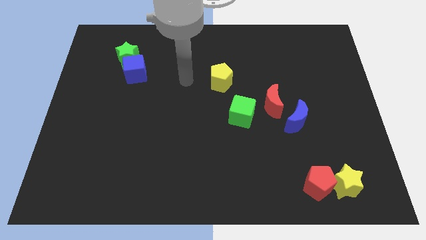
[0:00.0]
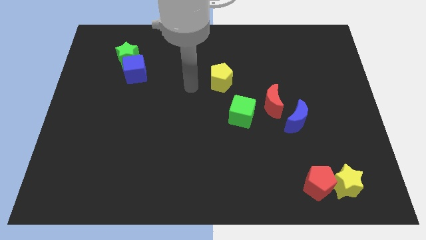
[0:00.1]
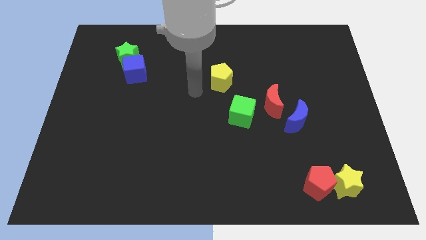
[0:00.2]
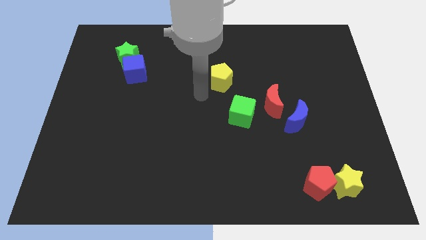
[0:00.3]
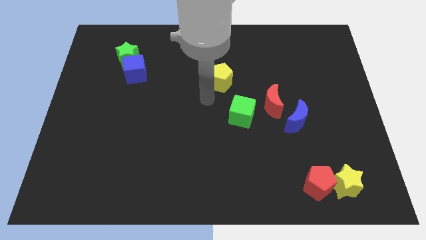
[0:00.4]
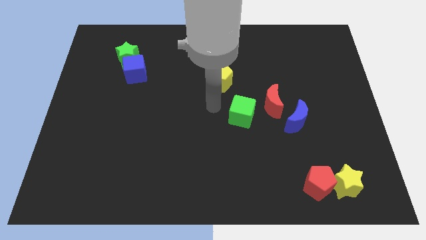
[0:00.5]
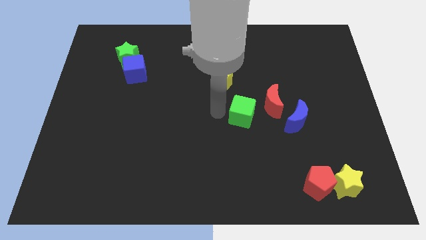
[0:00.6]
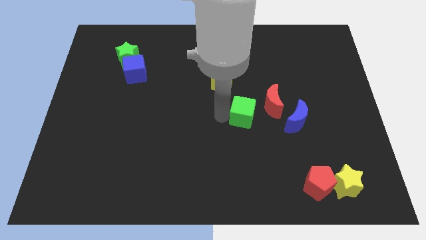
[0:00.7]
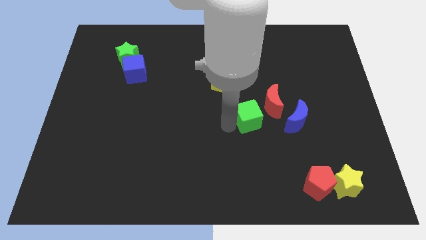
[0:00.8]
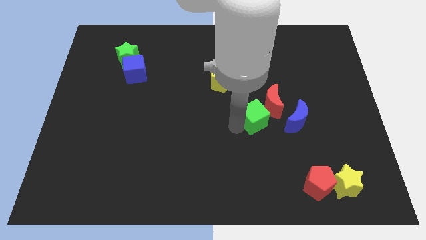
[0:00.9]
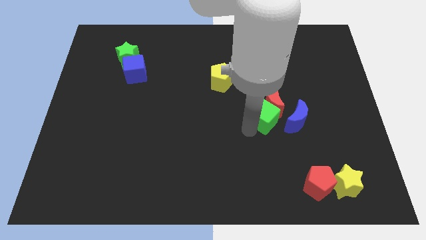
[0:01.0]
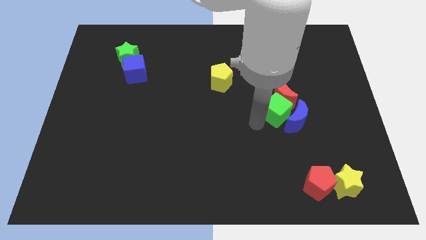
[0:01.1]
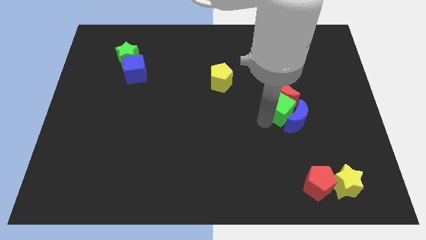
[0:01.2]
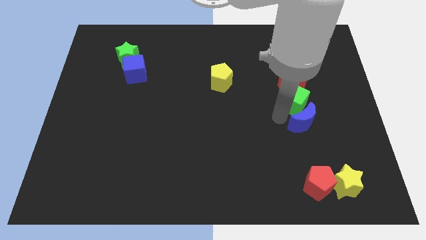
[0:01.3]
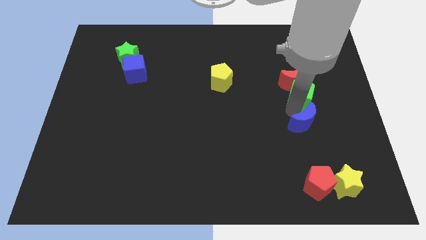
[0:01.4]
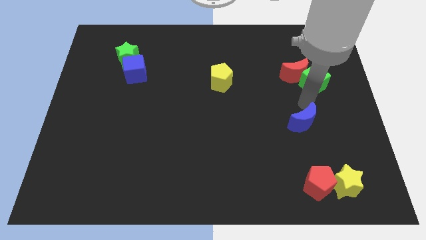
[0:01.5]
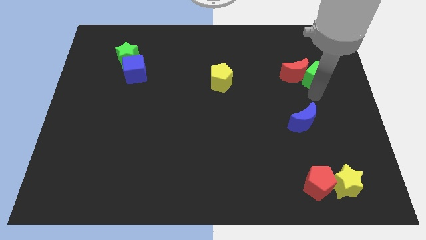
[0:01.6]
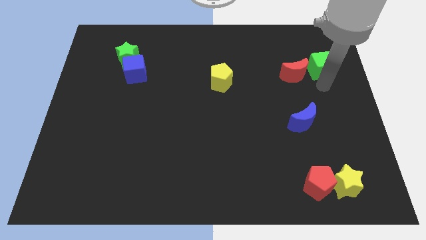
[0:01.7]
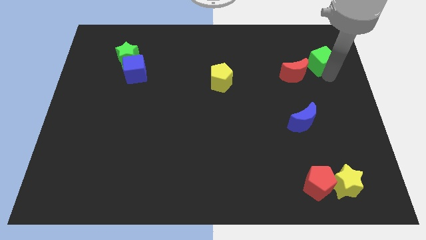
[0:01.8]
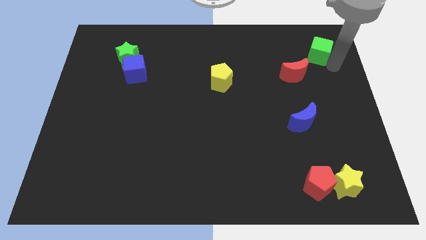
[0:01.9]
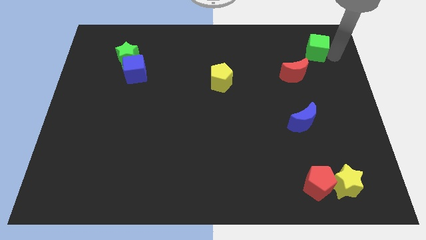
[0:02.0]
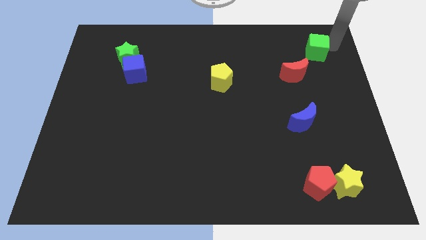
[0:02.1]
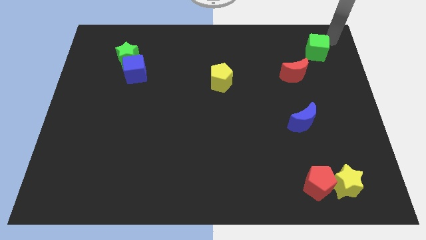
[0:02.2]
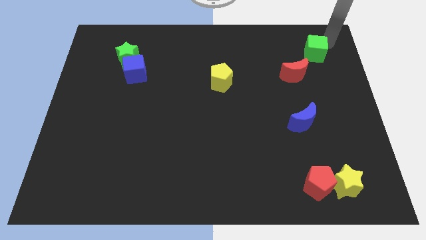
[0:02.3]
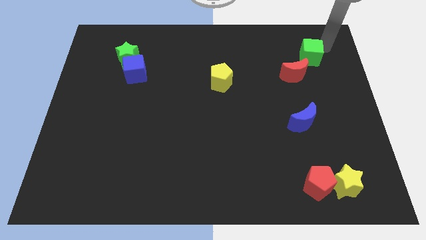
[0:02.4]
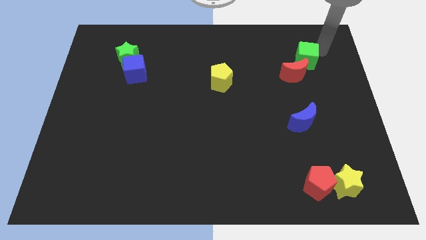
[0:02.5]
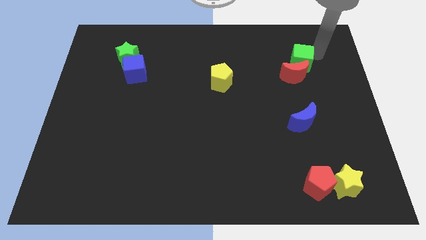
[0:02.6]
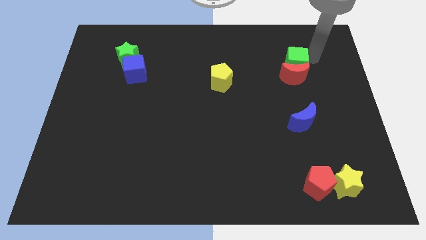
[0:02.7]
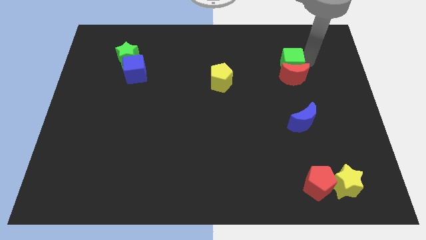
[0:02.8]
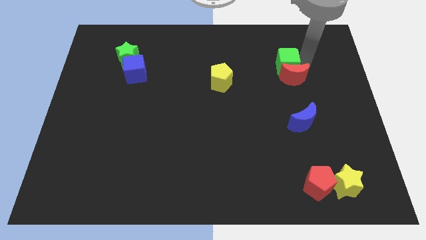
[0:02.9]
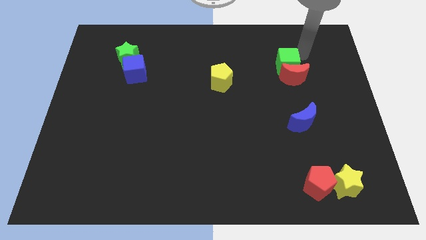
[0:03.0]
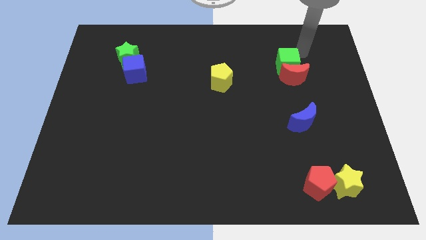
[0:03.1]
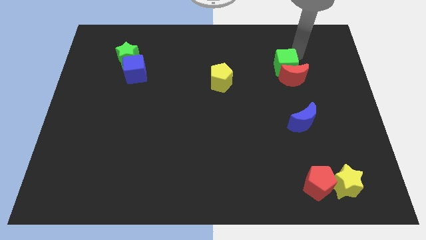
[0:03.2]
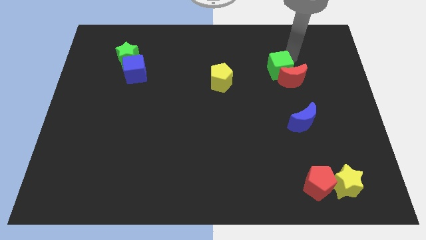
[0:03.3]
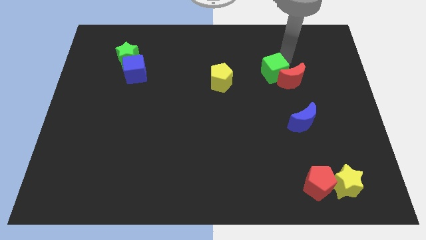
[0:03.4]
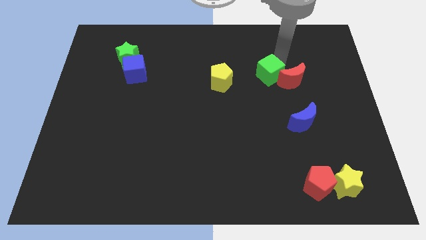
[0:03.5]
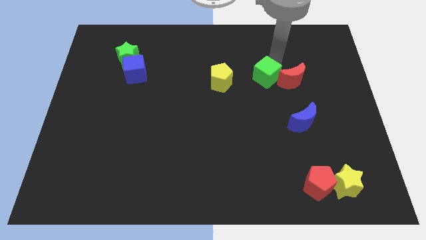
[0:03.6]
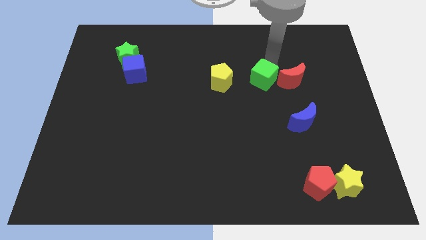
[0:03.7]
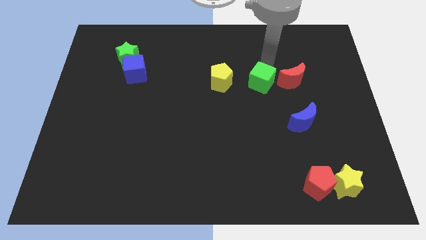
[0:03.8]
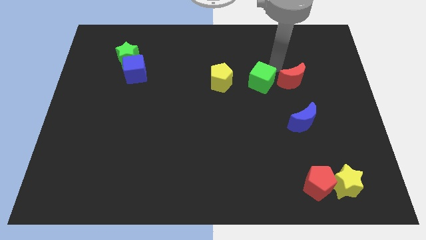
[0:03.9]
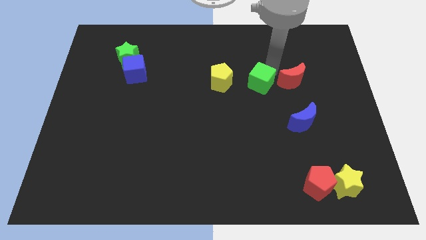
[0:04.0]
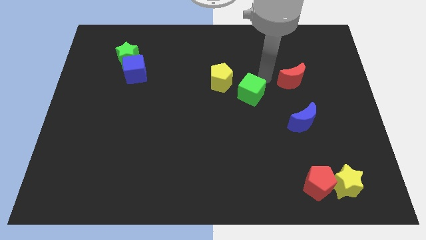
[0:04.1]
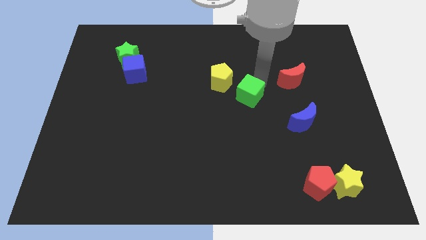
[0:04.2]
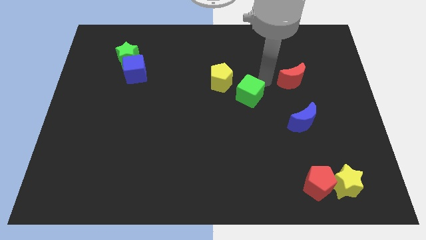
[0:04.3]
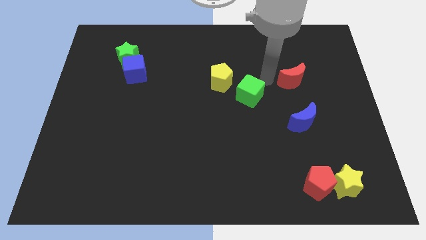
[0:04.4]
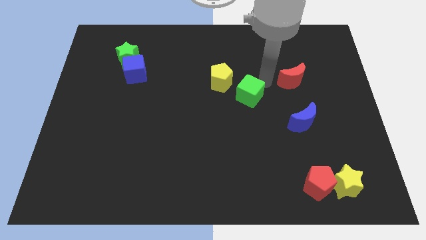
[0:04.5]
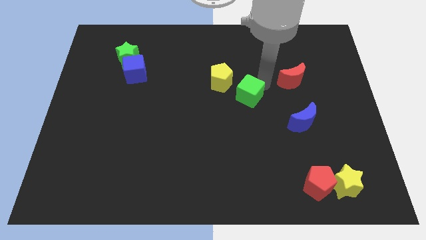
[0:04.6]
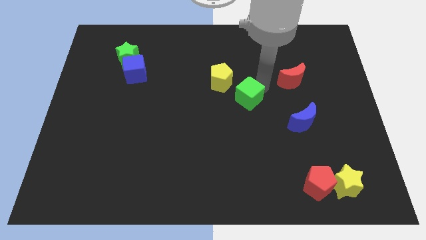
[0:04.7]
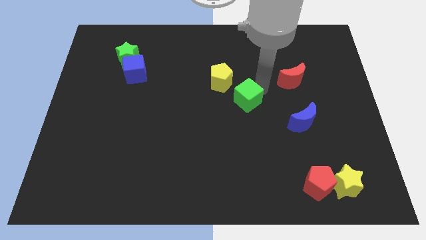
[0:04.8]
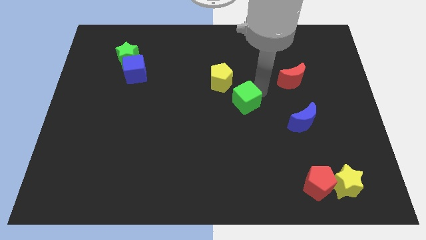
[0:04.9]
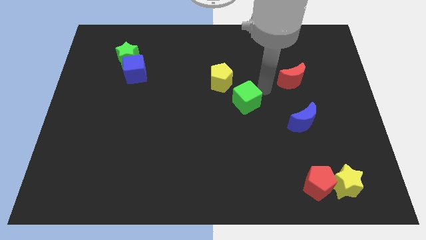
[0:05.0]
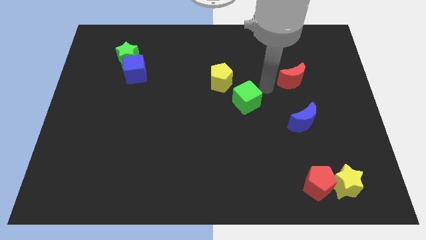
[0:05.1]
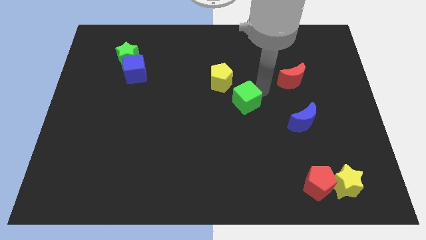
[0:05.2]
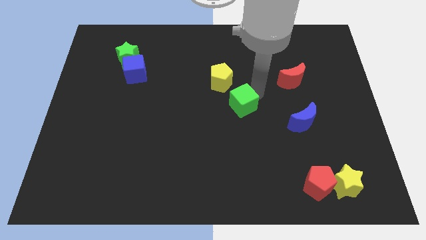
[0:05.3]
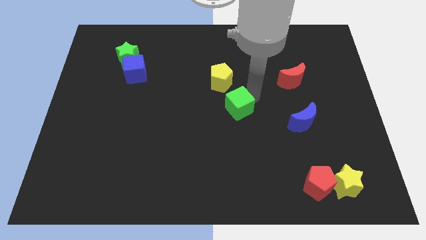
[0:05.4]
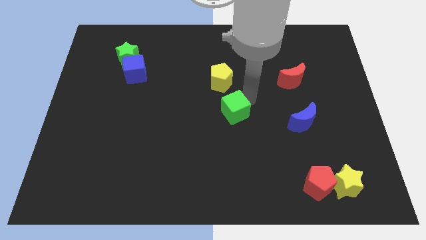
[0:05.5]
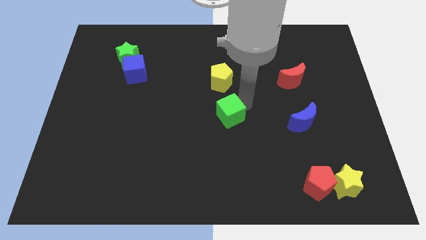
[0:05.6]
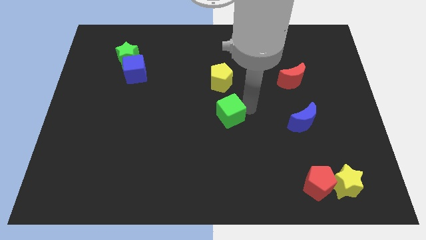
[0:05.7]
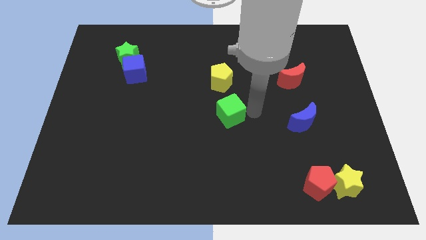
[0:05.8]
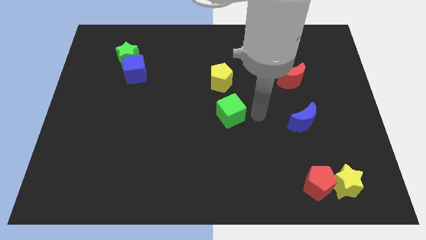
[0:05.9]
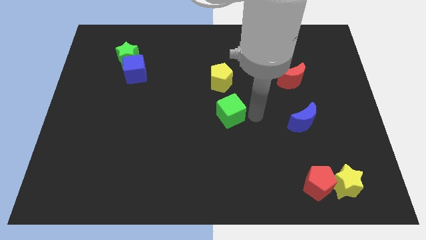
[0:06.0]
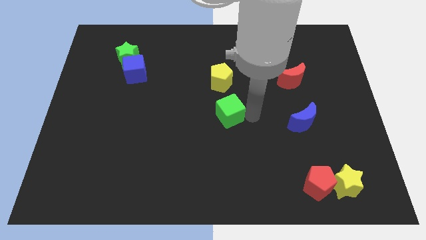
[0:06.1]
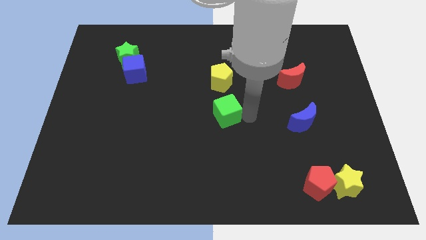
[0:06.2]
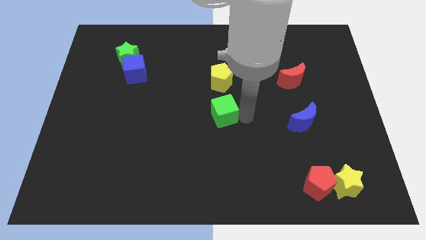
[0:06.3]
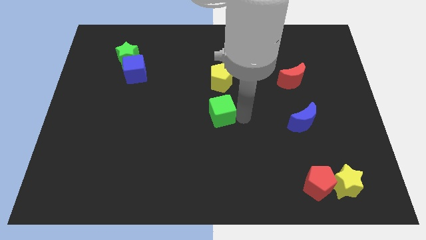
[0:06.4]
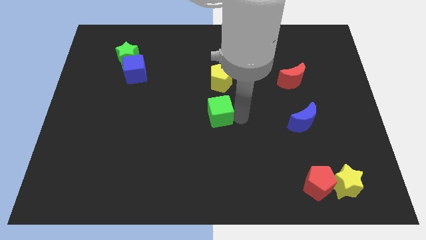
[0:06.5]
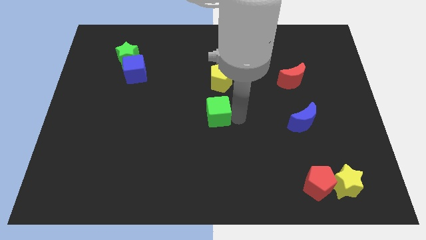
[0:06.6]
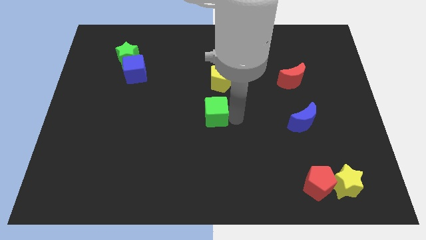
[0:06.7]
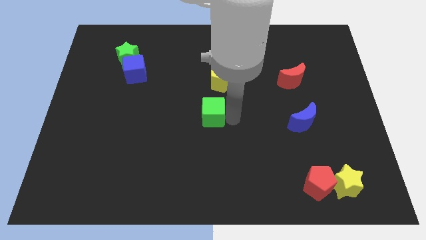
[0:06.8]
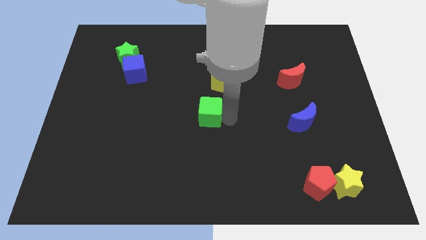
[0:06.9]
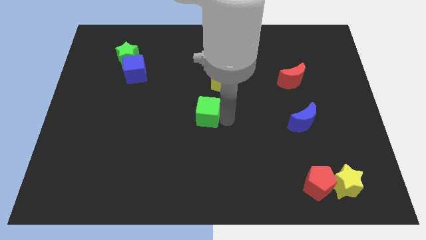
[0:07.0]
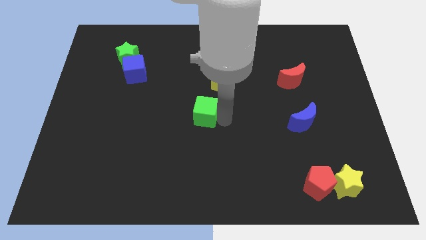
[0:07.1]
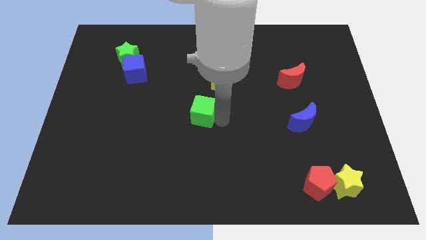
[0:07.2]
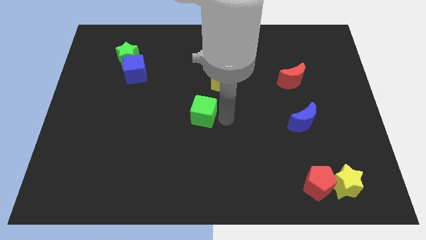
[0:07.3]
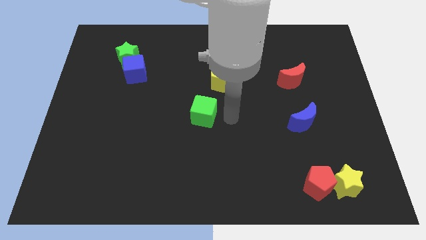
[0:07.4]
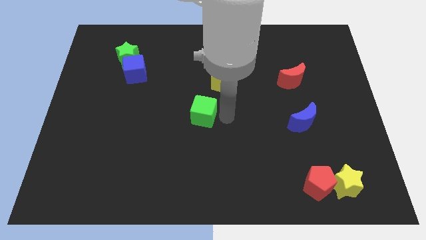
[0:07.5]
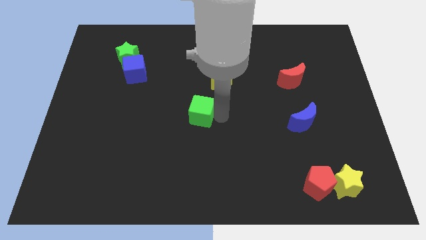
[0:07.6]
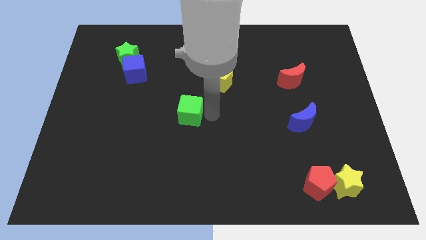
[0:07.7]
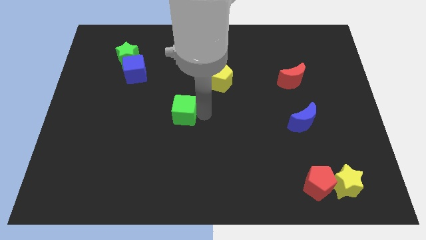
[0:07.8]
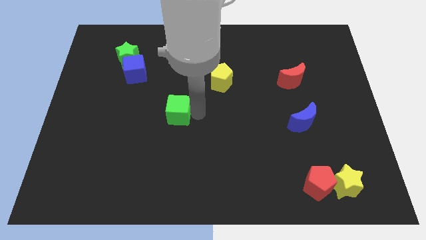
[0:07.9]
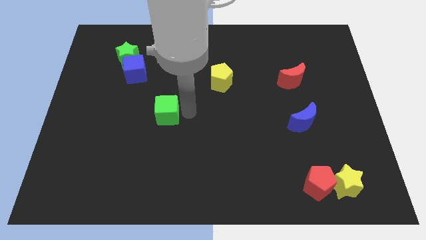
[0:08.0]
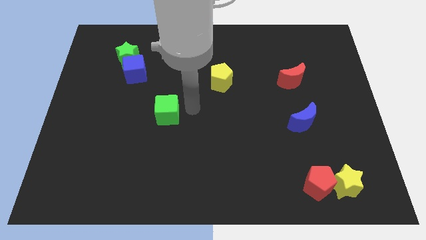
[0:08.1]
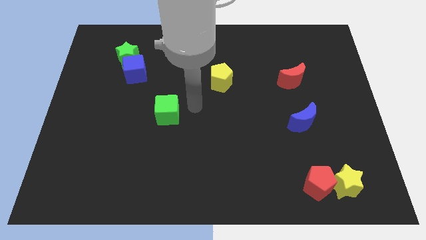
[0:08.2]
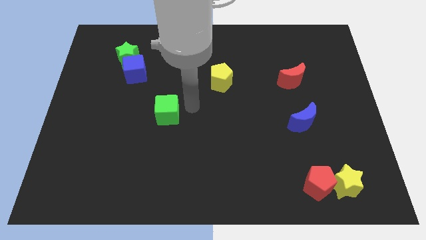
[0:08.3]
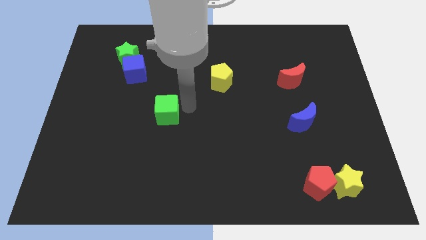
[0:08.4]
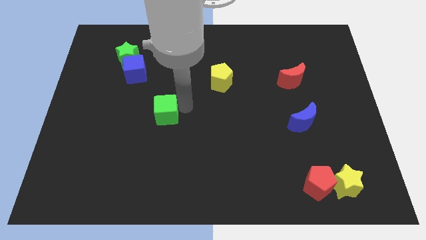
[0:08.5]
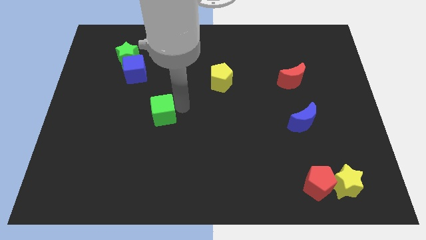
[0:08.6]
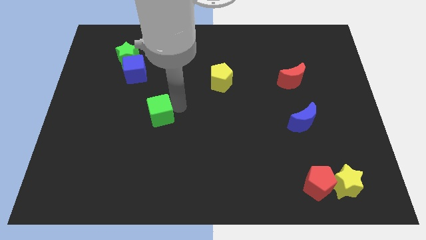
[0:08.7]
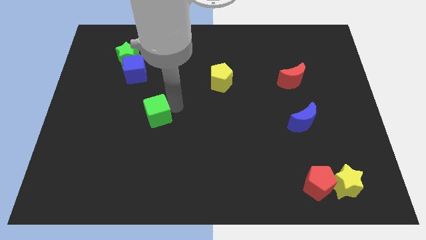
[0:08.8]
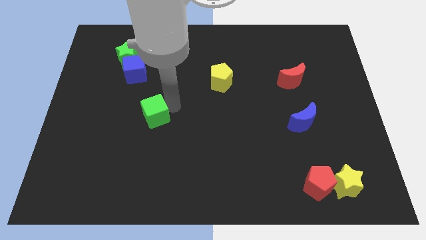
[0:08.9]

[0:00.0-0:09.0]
push the green cube to the left
